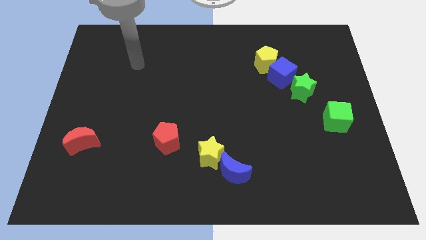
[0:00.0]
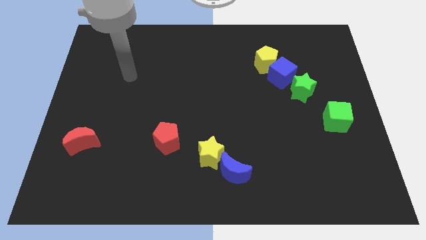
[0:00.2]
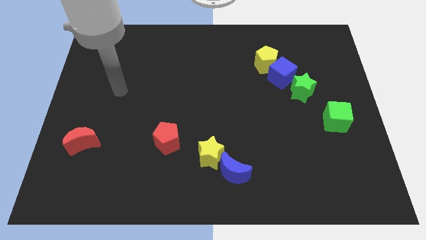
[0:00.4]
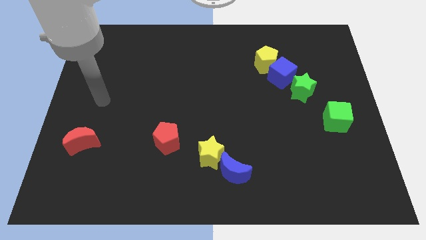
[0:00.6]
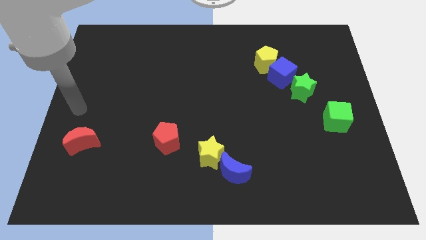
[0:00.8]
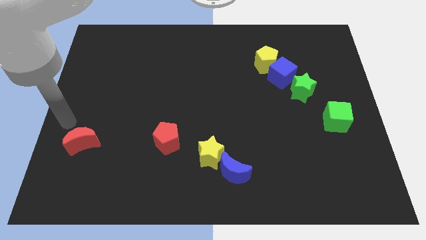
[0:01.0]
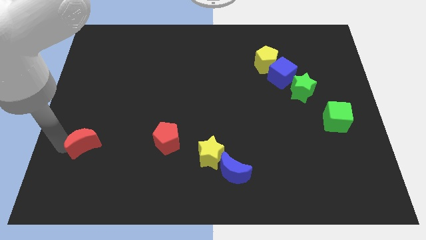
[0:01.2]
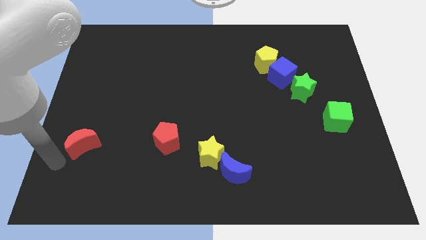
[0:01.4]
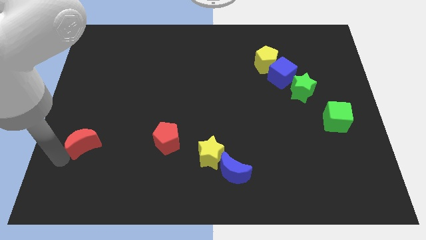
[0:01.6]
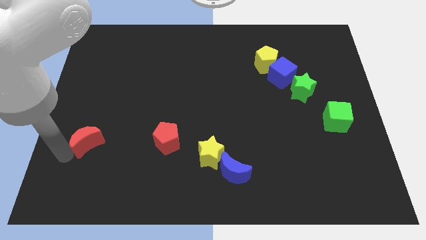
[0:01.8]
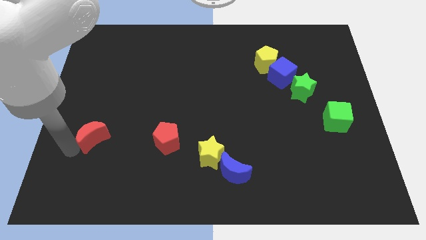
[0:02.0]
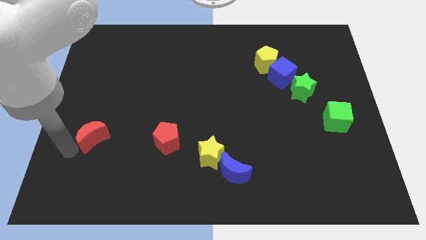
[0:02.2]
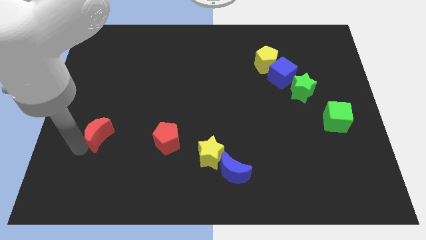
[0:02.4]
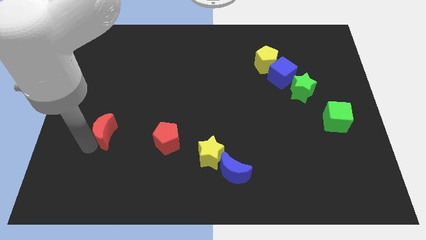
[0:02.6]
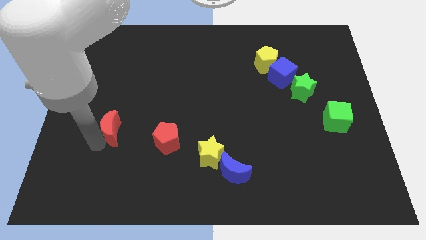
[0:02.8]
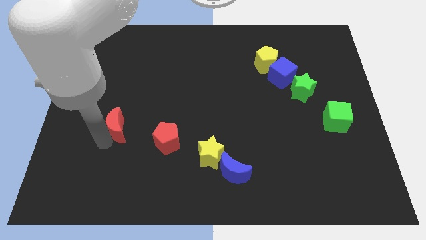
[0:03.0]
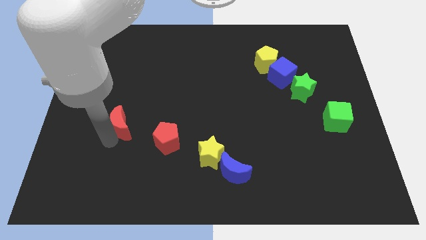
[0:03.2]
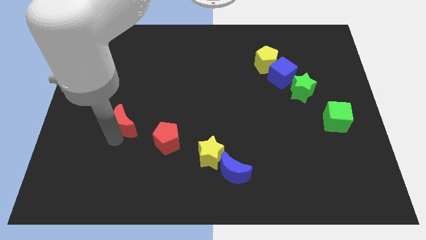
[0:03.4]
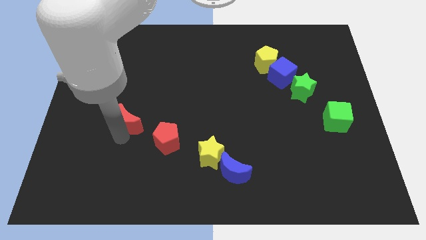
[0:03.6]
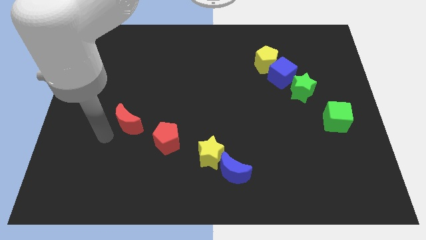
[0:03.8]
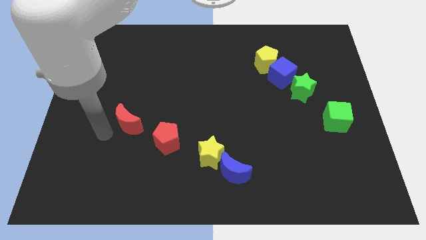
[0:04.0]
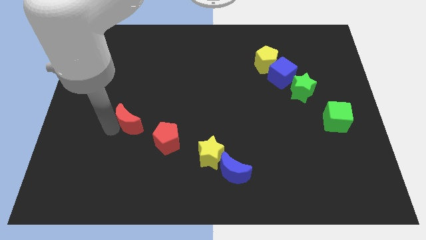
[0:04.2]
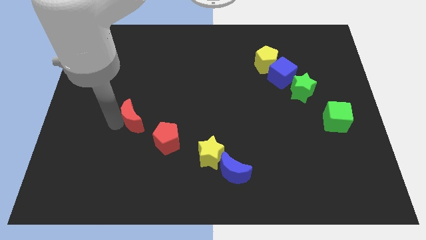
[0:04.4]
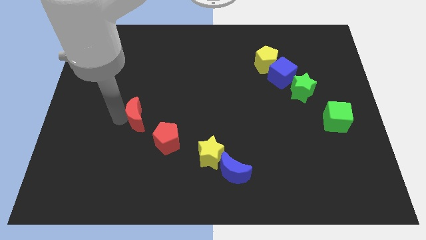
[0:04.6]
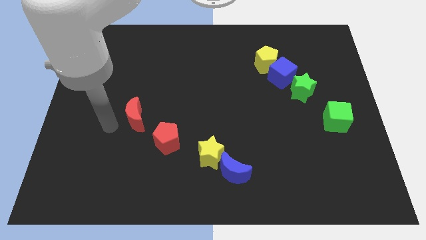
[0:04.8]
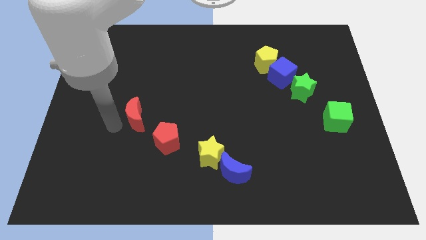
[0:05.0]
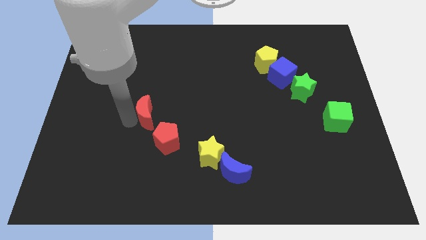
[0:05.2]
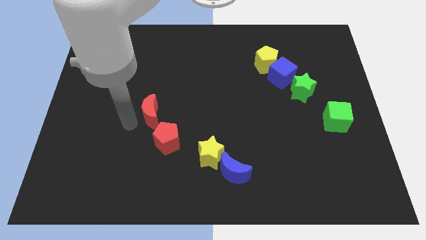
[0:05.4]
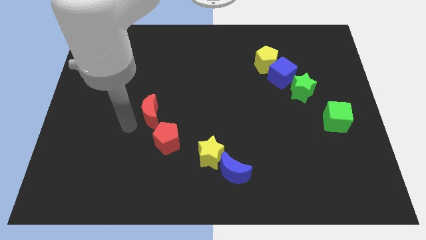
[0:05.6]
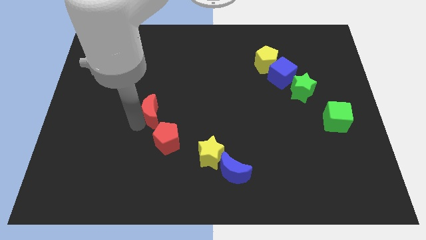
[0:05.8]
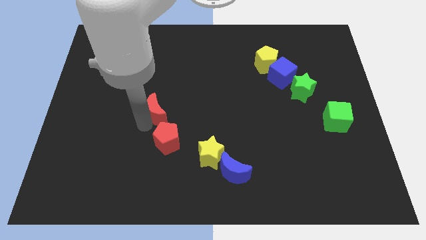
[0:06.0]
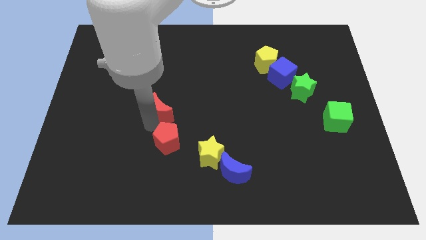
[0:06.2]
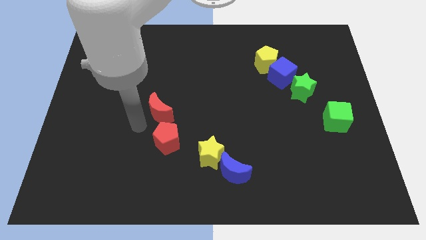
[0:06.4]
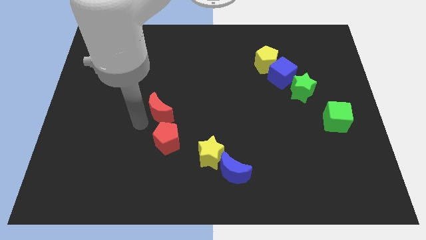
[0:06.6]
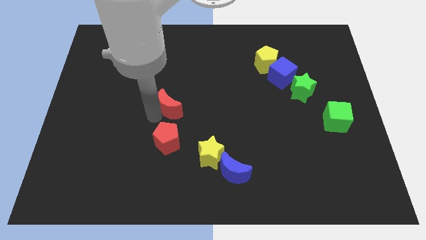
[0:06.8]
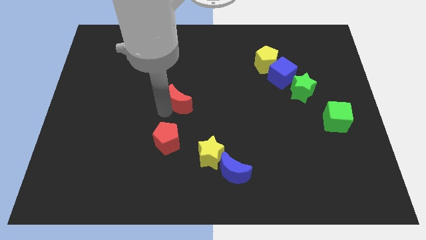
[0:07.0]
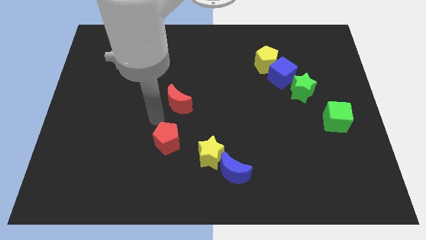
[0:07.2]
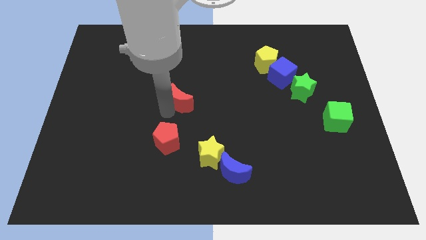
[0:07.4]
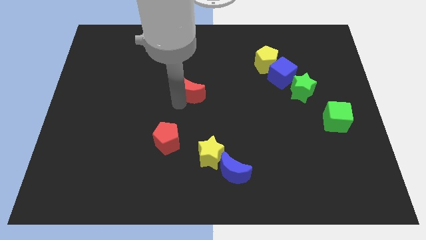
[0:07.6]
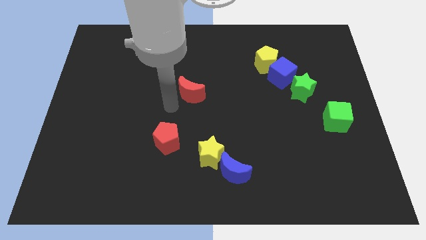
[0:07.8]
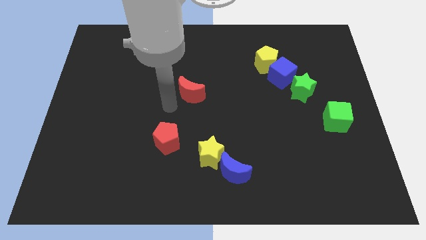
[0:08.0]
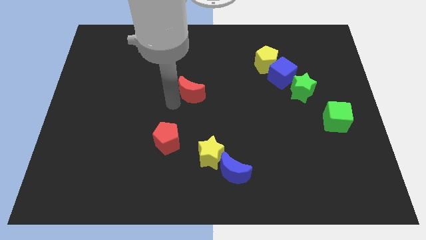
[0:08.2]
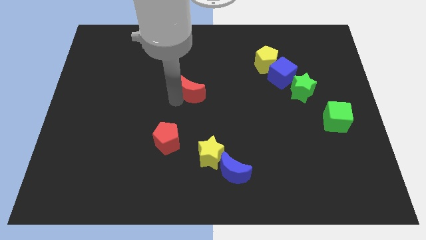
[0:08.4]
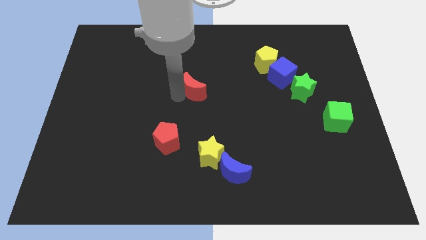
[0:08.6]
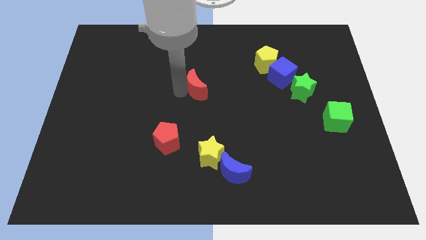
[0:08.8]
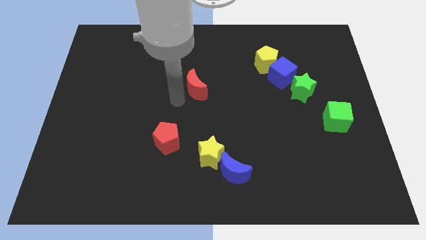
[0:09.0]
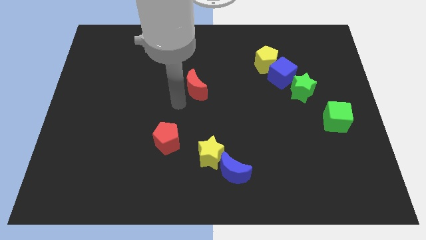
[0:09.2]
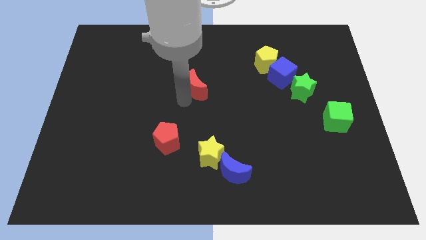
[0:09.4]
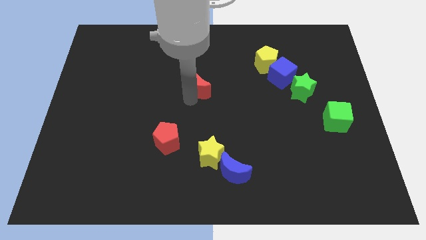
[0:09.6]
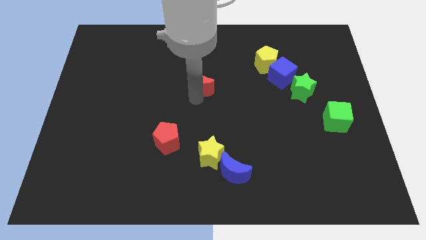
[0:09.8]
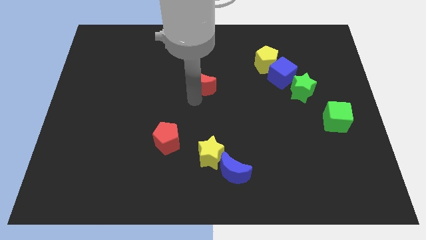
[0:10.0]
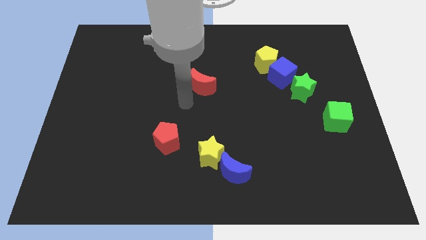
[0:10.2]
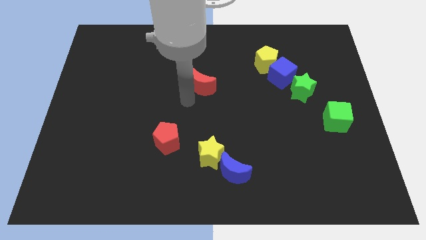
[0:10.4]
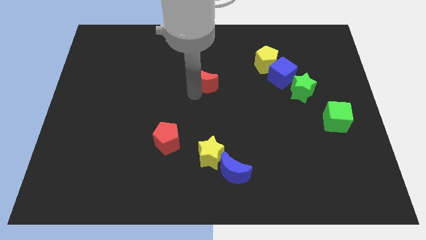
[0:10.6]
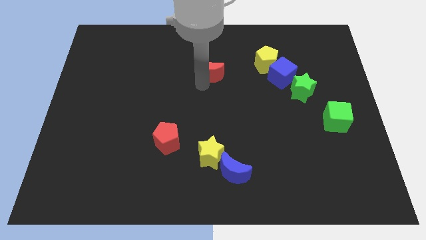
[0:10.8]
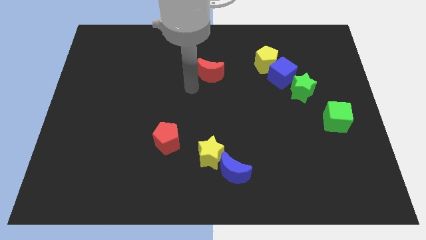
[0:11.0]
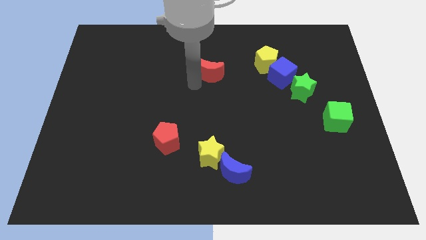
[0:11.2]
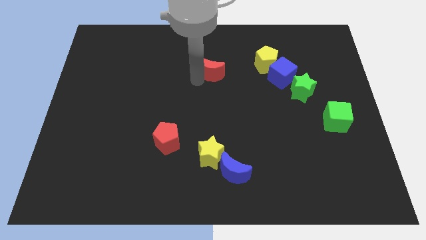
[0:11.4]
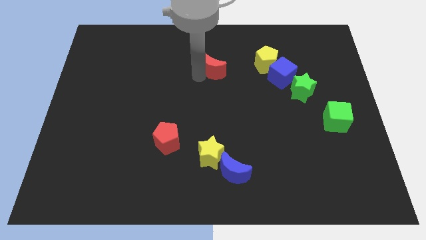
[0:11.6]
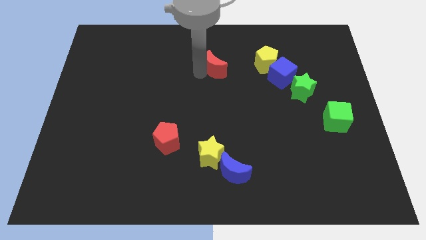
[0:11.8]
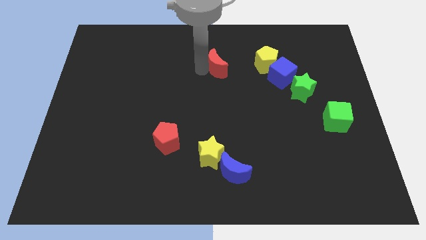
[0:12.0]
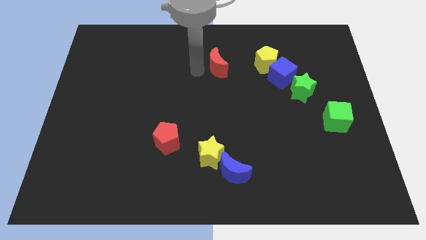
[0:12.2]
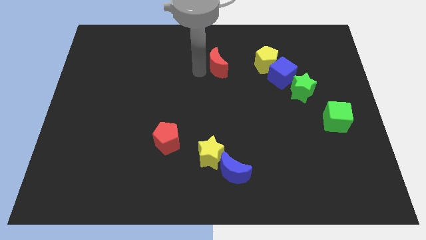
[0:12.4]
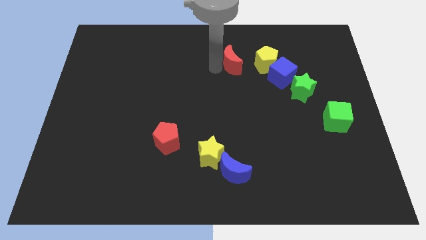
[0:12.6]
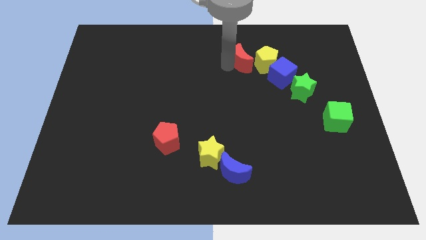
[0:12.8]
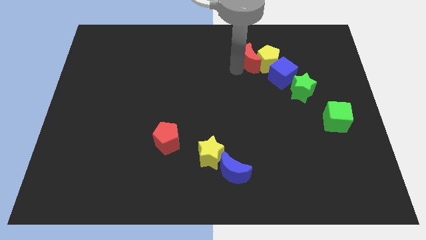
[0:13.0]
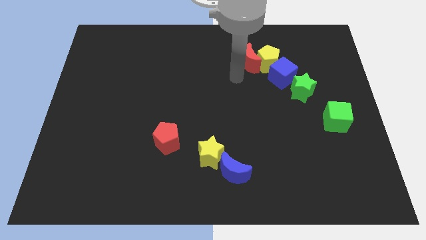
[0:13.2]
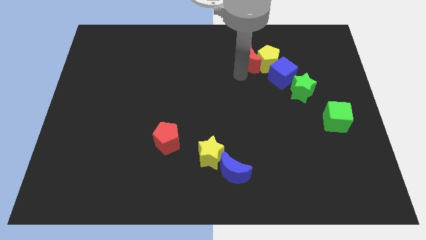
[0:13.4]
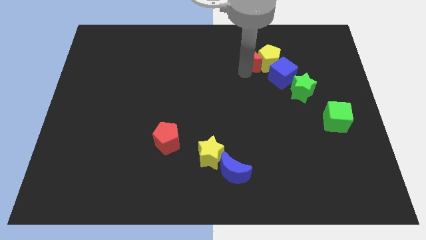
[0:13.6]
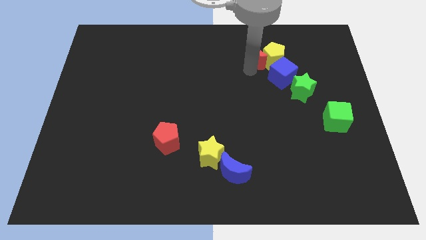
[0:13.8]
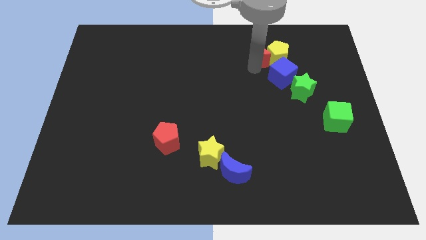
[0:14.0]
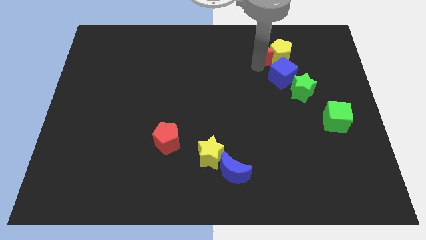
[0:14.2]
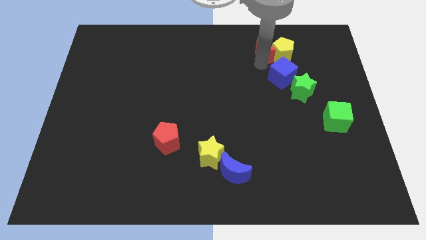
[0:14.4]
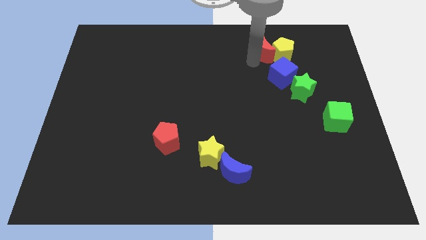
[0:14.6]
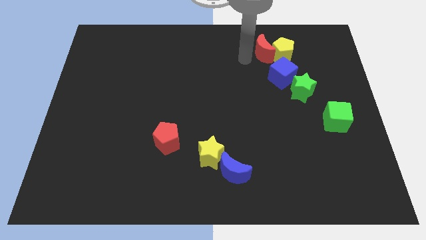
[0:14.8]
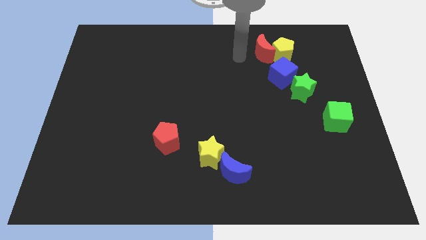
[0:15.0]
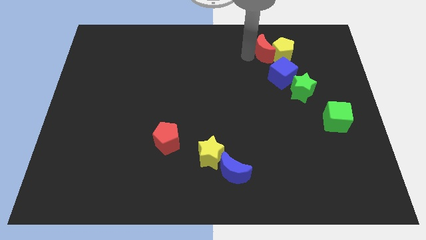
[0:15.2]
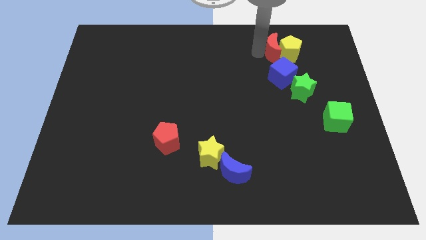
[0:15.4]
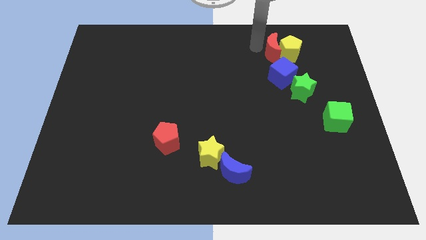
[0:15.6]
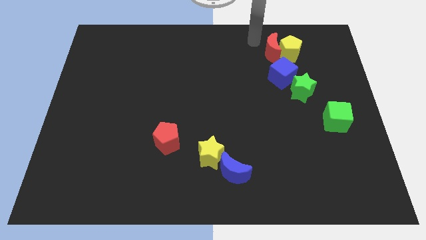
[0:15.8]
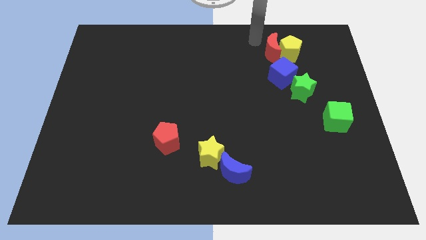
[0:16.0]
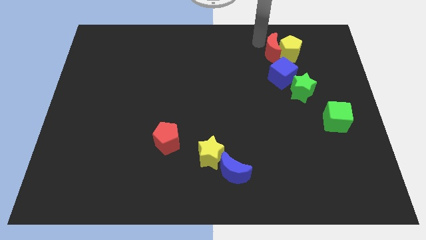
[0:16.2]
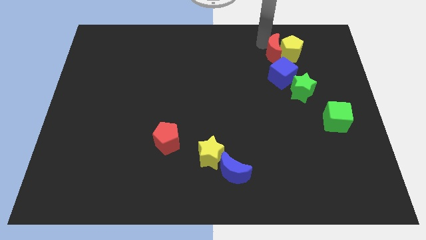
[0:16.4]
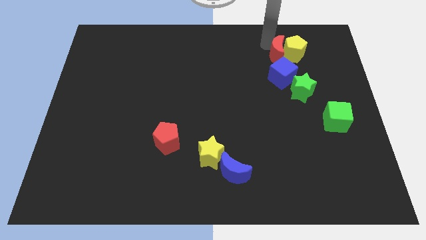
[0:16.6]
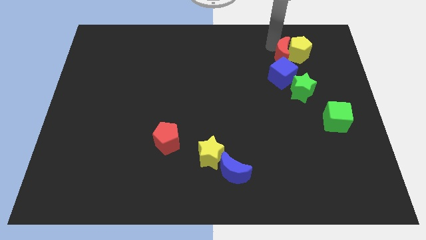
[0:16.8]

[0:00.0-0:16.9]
put the red moon diagonally up and to the right of the blue cube
